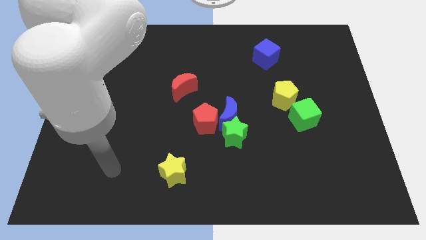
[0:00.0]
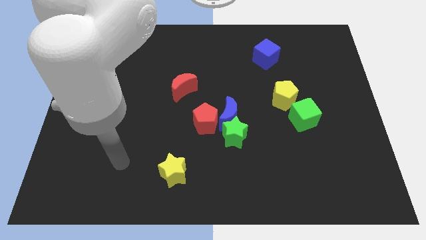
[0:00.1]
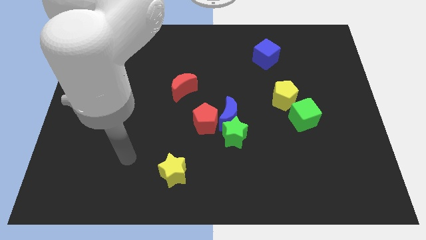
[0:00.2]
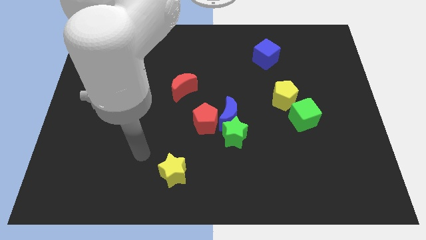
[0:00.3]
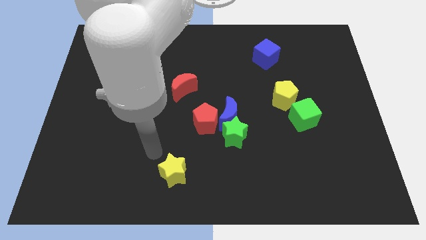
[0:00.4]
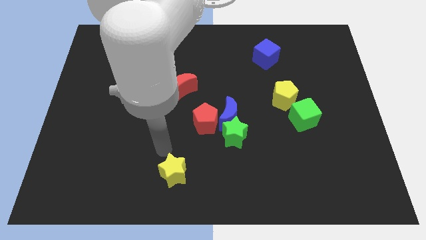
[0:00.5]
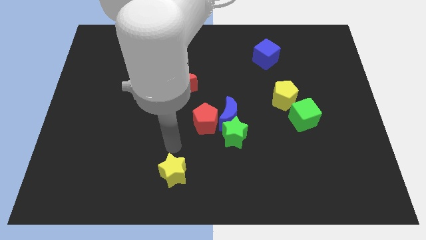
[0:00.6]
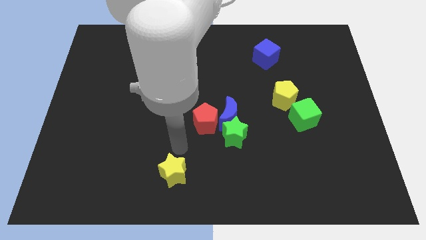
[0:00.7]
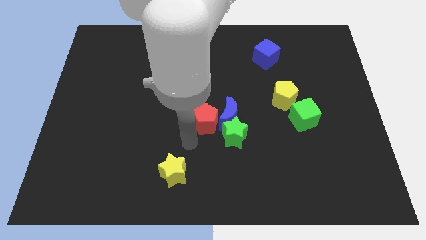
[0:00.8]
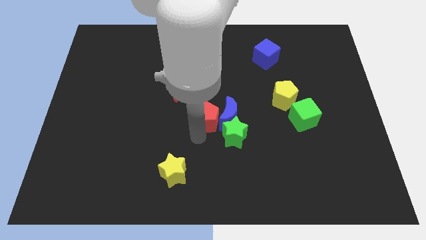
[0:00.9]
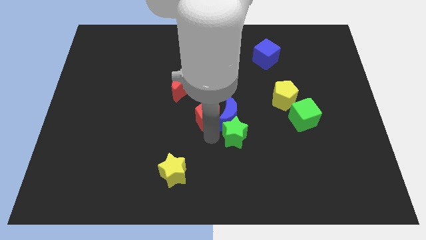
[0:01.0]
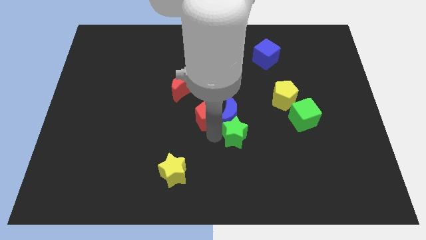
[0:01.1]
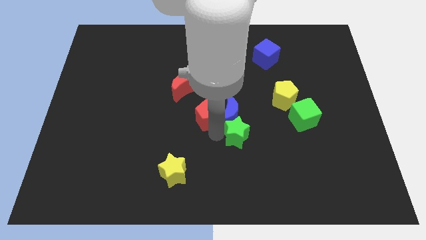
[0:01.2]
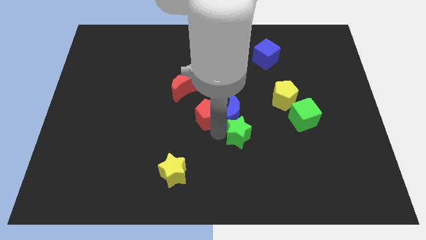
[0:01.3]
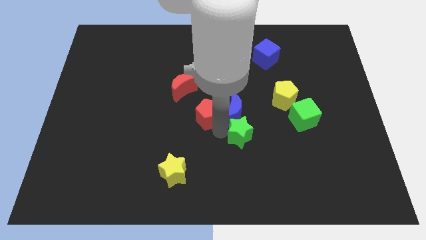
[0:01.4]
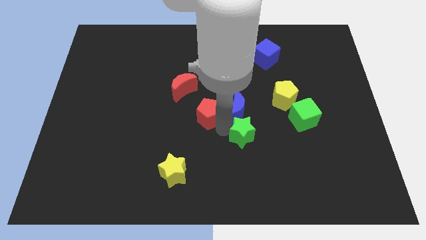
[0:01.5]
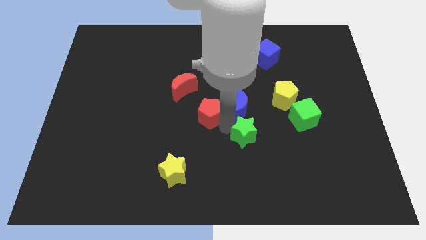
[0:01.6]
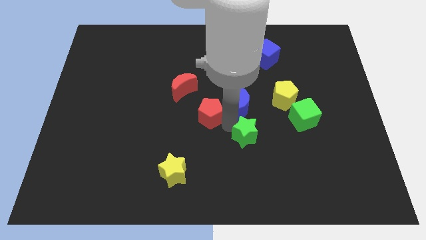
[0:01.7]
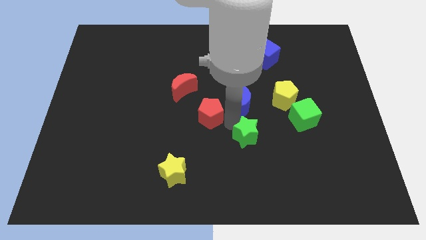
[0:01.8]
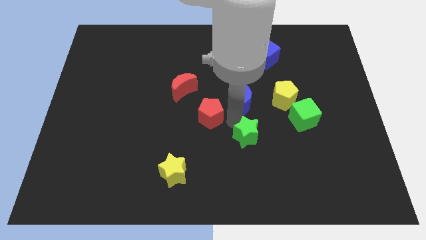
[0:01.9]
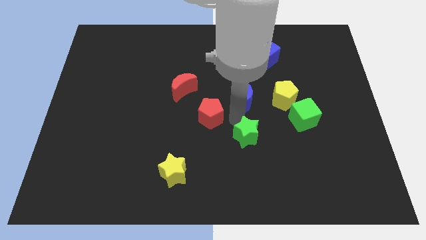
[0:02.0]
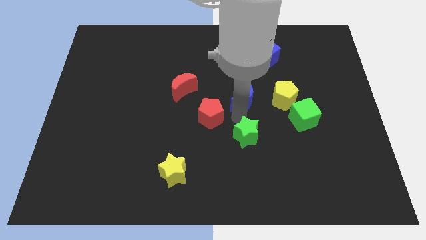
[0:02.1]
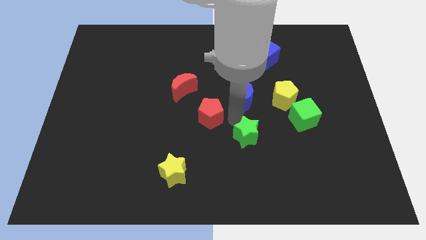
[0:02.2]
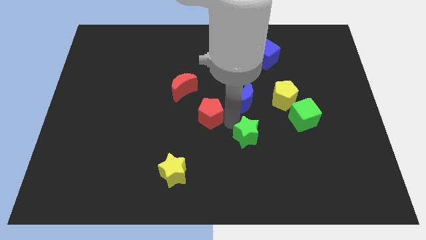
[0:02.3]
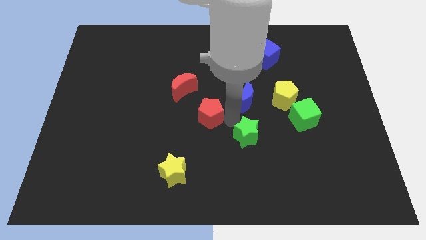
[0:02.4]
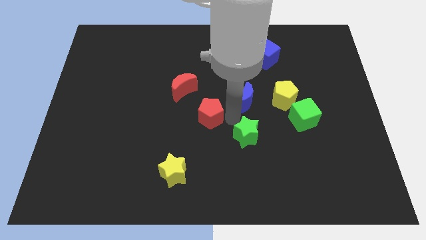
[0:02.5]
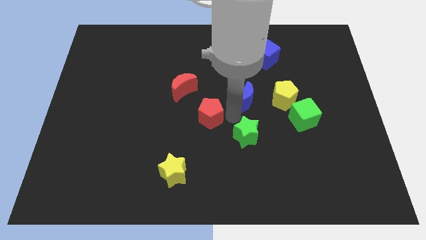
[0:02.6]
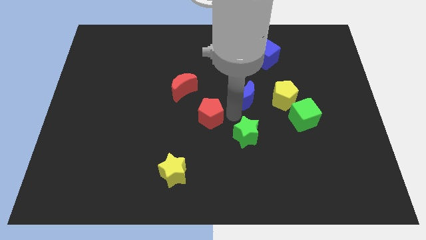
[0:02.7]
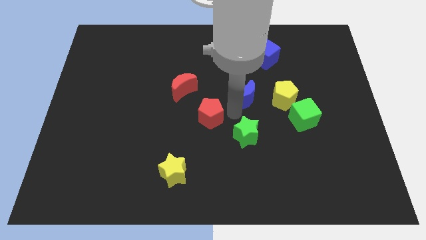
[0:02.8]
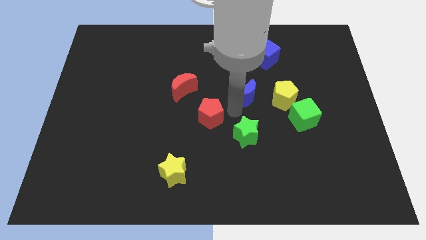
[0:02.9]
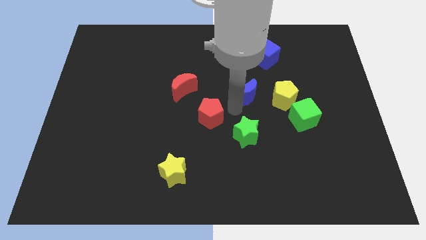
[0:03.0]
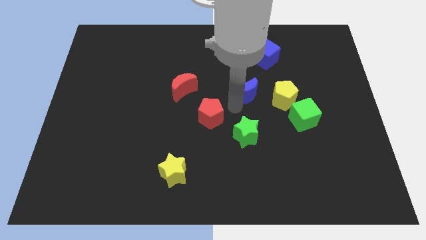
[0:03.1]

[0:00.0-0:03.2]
pull the blue moon apart from the green star and red pentagon

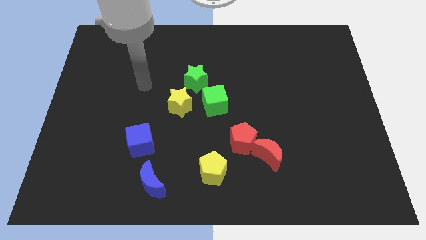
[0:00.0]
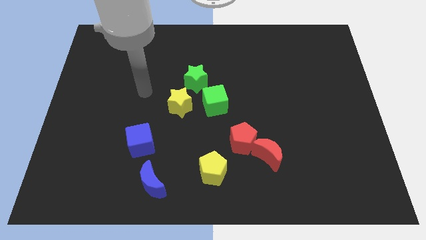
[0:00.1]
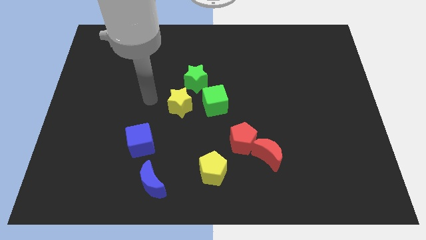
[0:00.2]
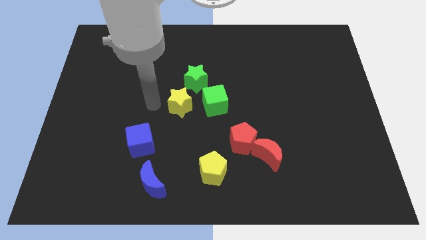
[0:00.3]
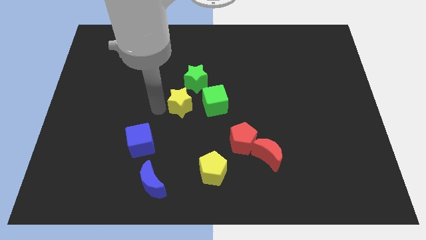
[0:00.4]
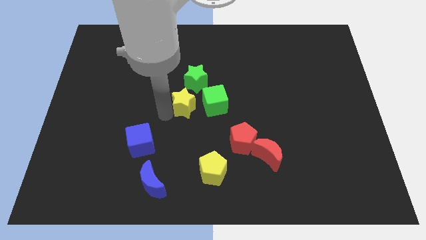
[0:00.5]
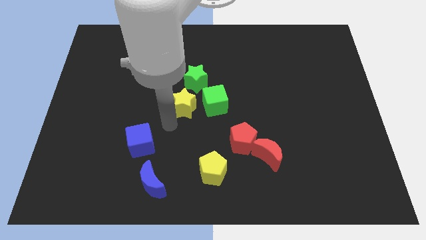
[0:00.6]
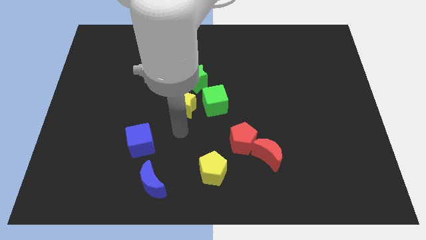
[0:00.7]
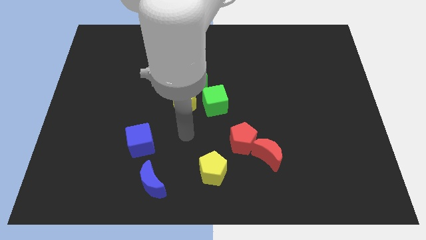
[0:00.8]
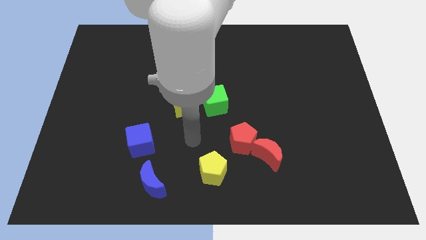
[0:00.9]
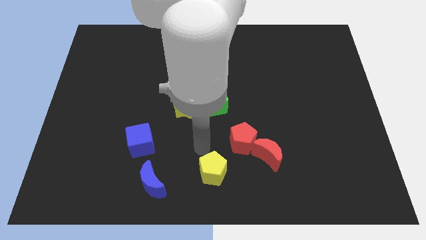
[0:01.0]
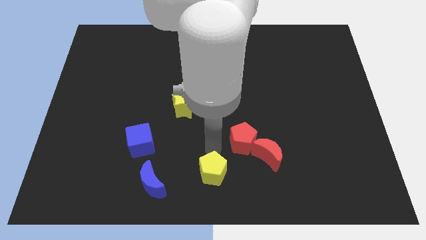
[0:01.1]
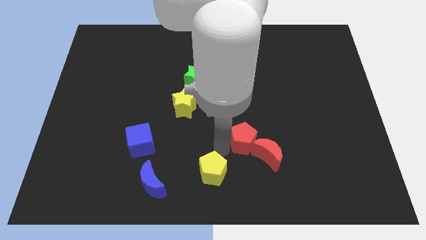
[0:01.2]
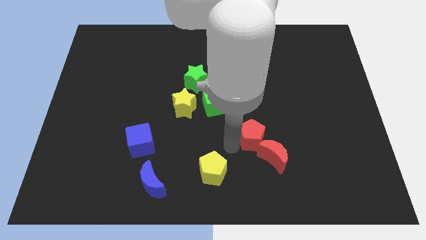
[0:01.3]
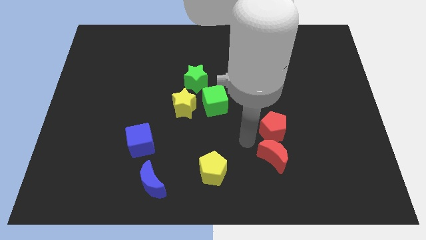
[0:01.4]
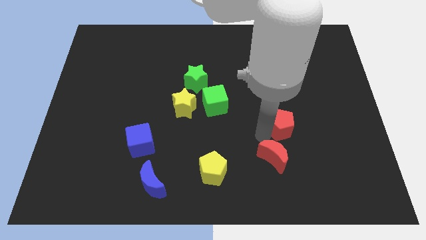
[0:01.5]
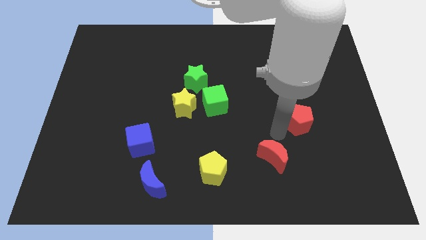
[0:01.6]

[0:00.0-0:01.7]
pull the red moon apart from the red pentagon

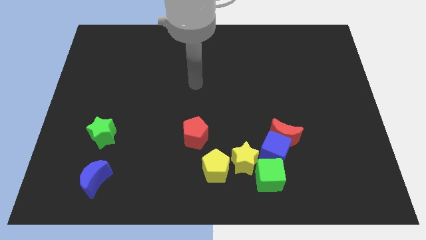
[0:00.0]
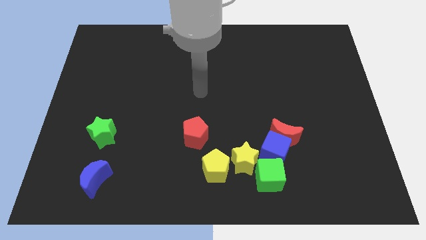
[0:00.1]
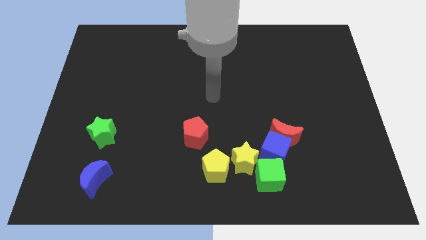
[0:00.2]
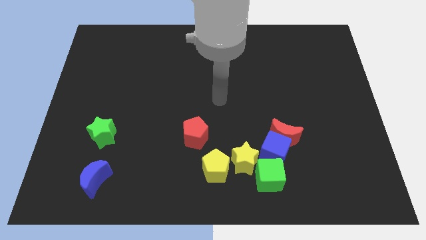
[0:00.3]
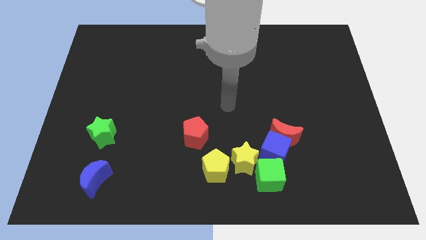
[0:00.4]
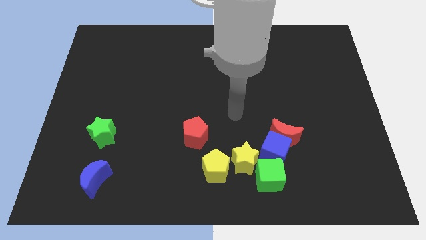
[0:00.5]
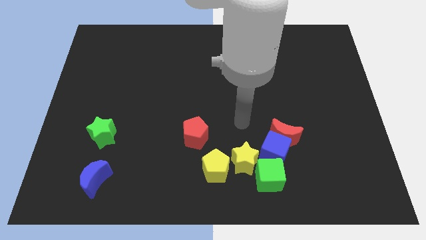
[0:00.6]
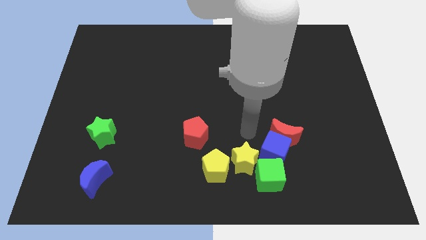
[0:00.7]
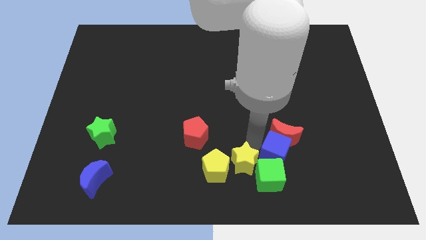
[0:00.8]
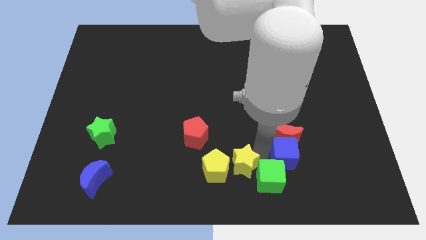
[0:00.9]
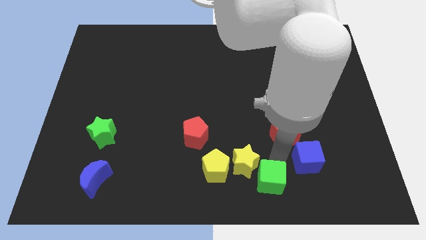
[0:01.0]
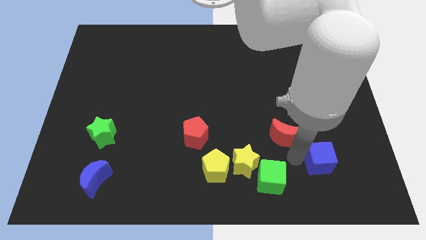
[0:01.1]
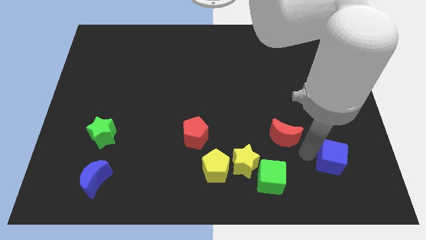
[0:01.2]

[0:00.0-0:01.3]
separate the red moon from the blue cube

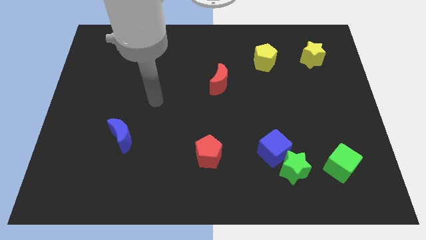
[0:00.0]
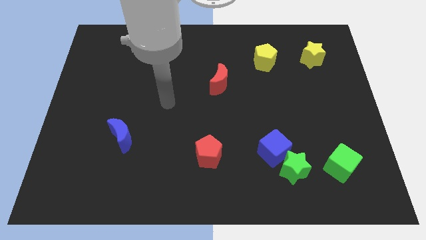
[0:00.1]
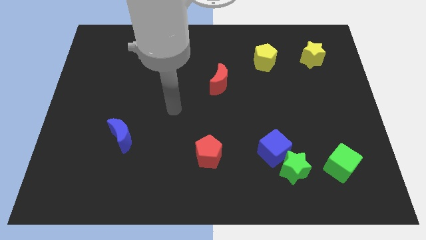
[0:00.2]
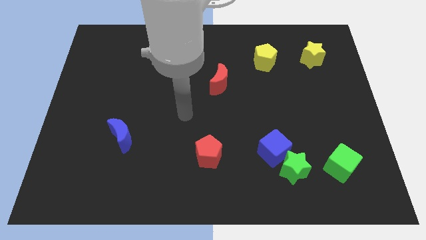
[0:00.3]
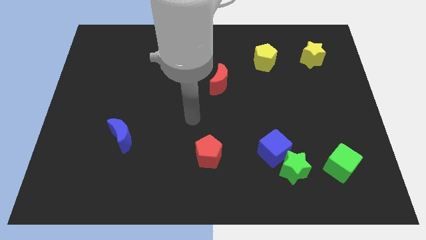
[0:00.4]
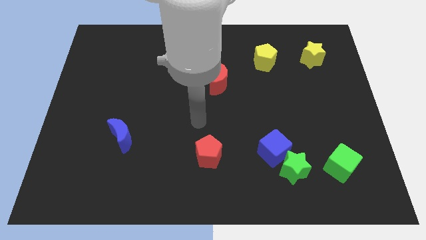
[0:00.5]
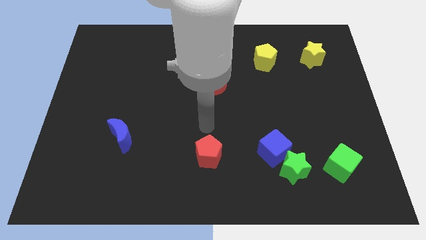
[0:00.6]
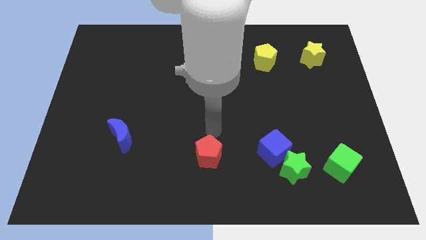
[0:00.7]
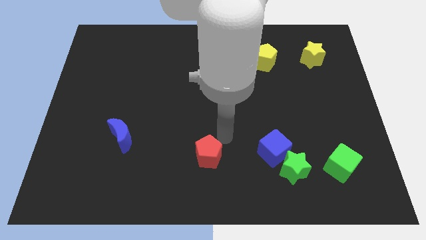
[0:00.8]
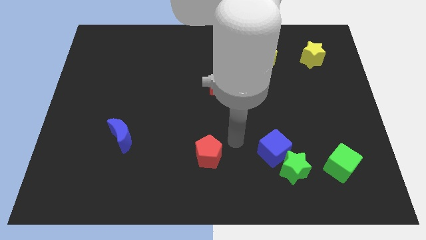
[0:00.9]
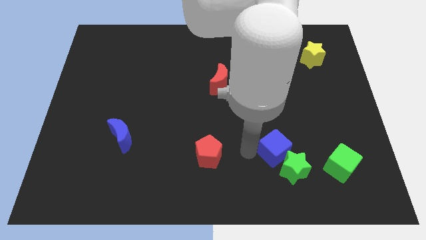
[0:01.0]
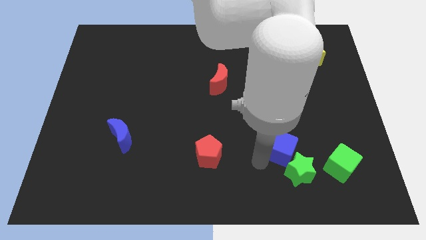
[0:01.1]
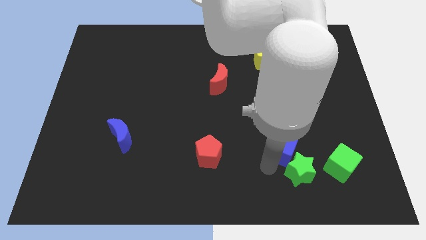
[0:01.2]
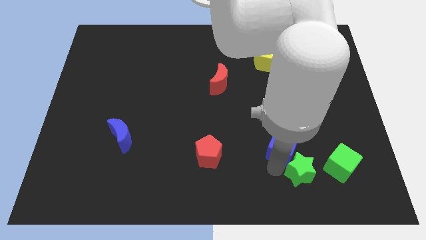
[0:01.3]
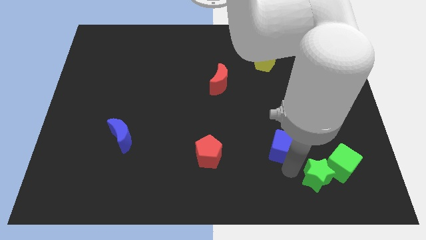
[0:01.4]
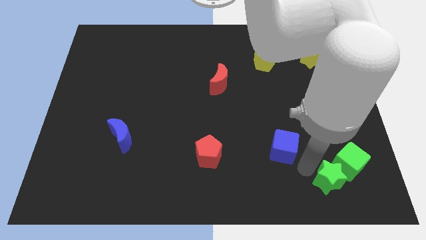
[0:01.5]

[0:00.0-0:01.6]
separate the blue cube from the green star

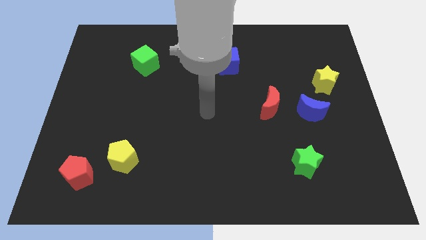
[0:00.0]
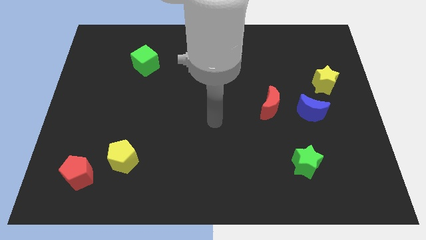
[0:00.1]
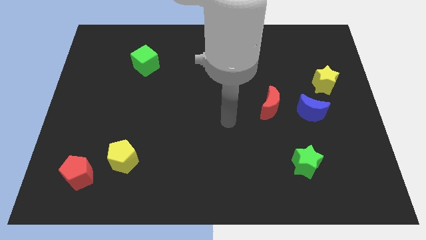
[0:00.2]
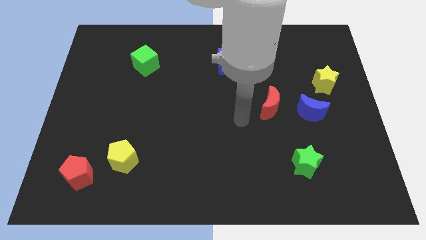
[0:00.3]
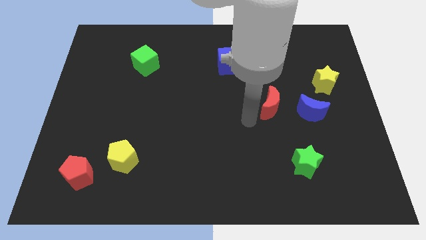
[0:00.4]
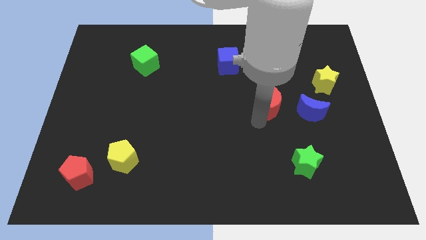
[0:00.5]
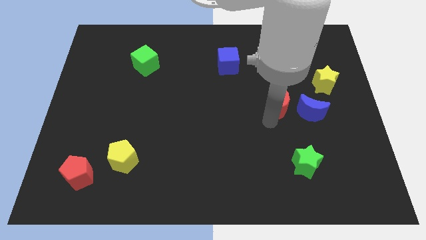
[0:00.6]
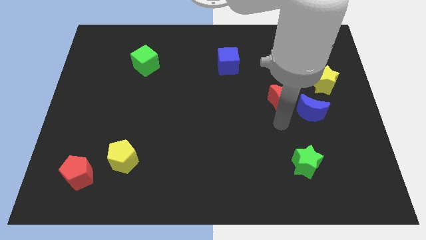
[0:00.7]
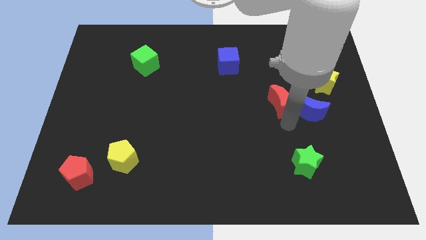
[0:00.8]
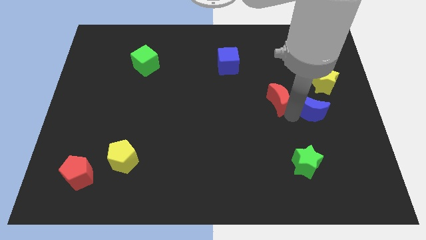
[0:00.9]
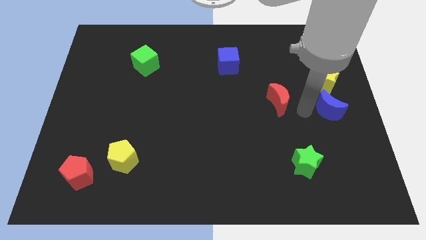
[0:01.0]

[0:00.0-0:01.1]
move the red moon away from the blue moon

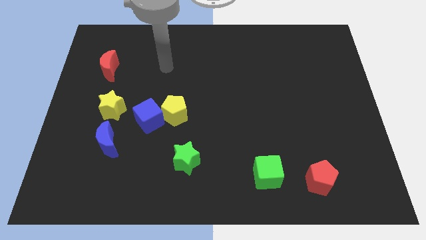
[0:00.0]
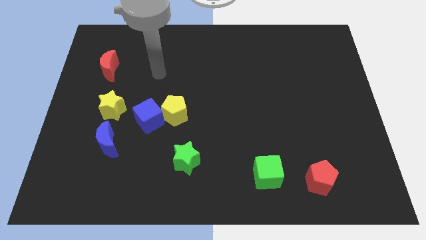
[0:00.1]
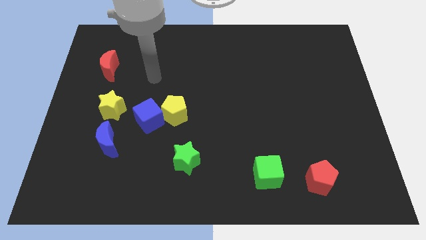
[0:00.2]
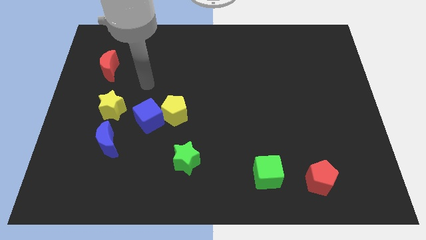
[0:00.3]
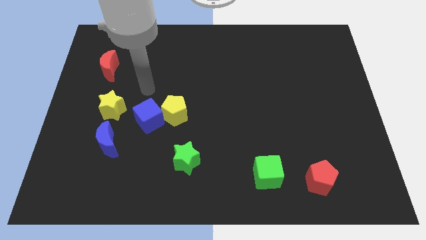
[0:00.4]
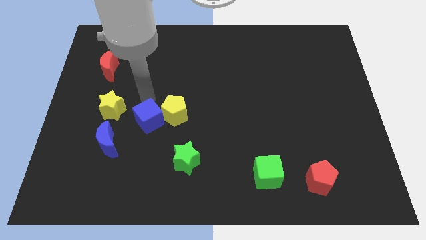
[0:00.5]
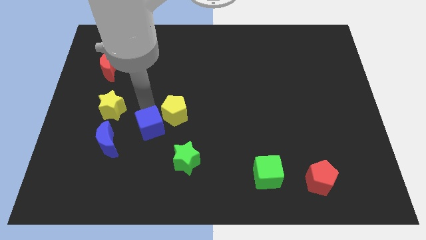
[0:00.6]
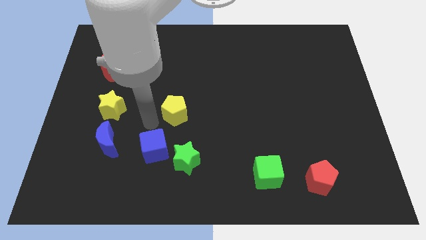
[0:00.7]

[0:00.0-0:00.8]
separate the yellow pentagon from the blue cube
